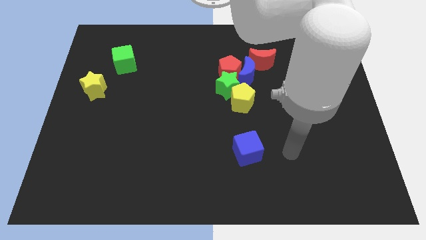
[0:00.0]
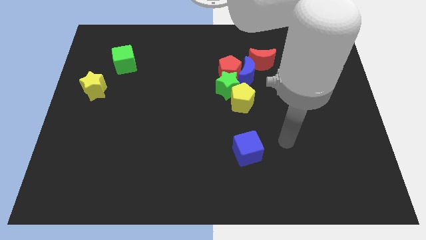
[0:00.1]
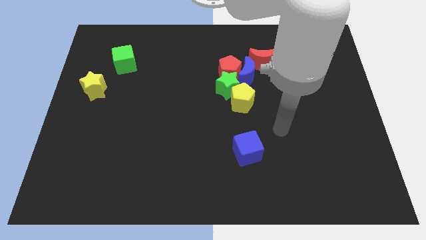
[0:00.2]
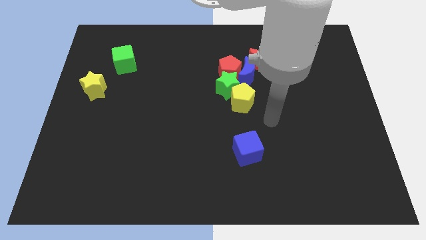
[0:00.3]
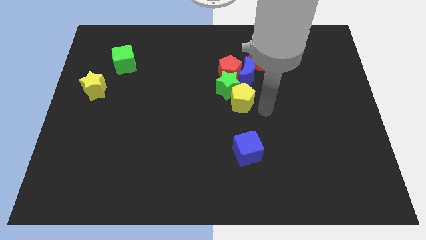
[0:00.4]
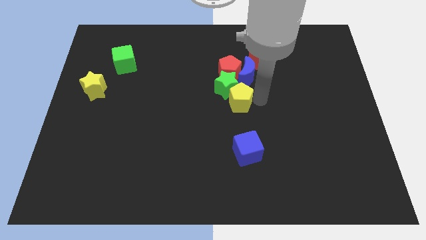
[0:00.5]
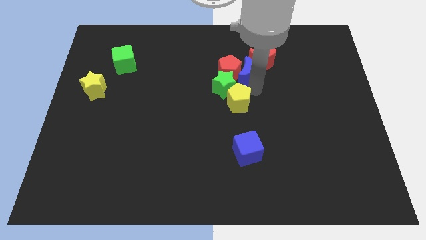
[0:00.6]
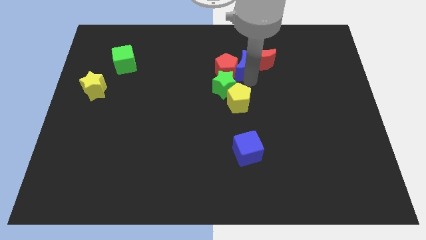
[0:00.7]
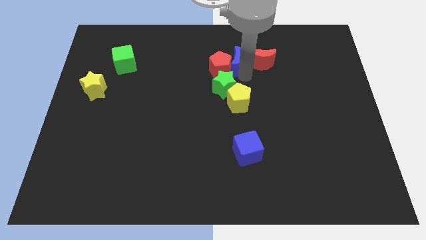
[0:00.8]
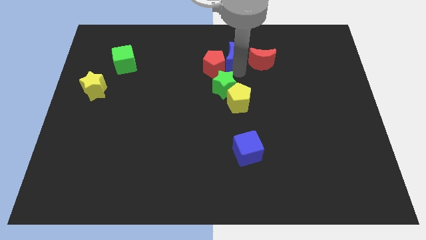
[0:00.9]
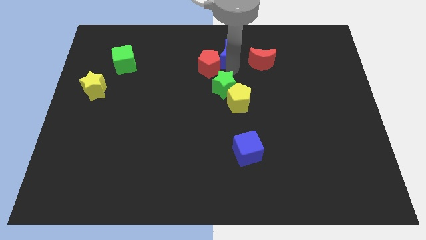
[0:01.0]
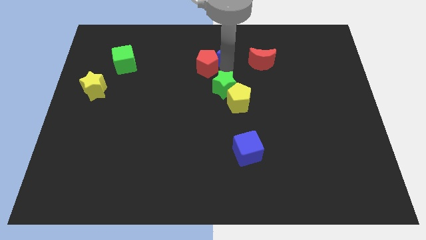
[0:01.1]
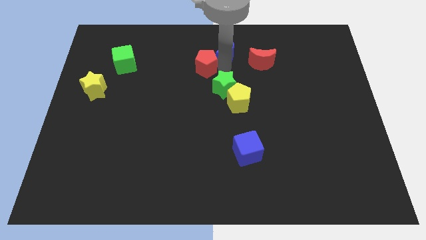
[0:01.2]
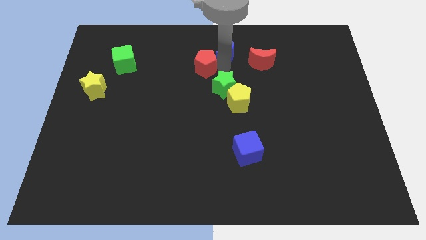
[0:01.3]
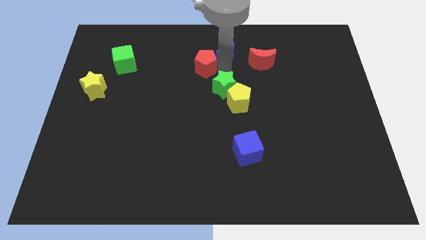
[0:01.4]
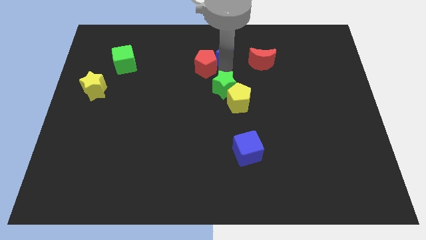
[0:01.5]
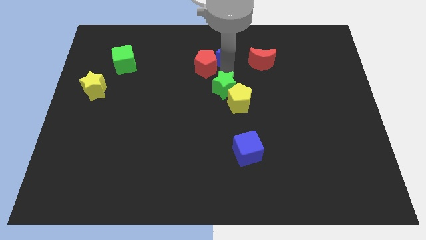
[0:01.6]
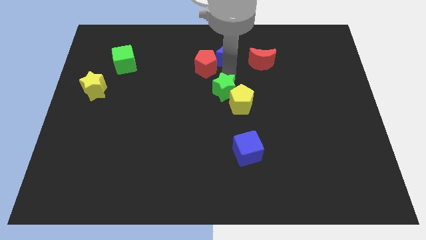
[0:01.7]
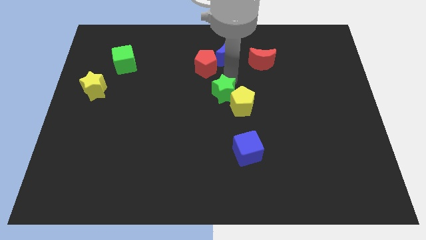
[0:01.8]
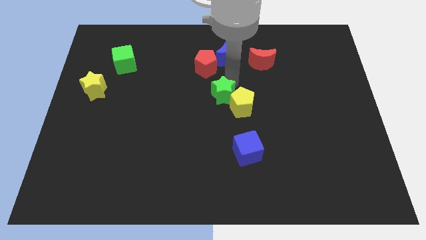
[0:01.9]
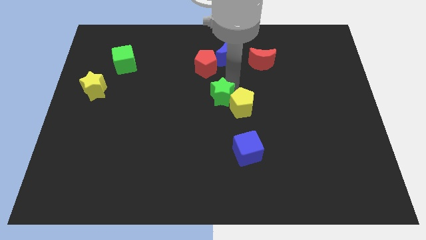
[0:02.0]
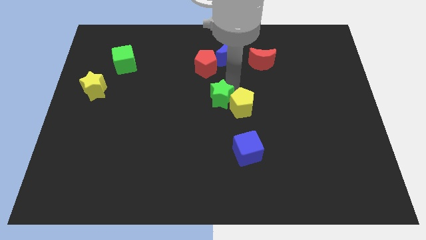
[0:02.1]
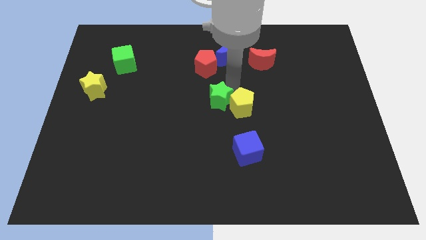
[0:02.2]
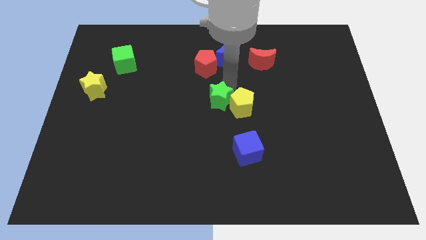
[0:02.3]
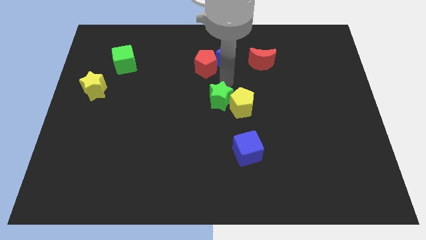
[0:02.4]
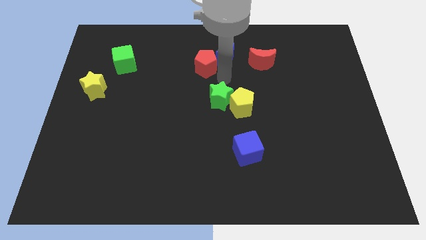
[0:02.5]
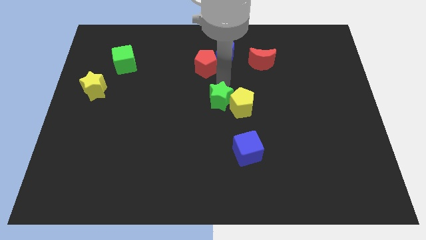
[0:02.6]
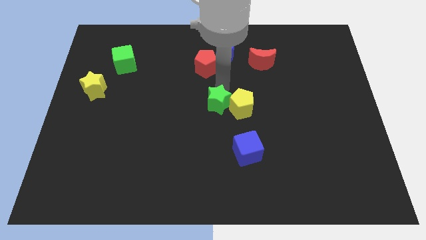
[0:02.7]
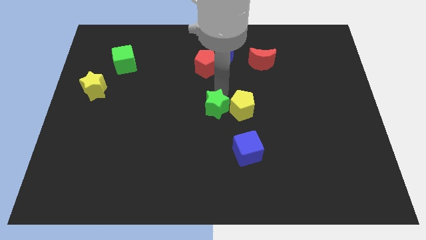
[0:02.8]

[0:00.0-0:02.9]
pull the green star apart from the clump

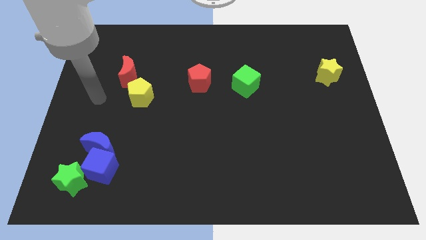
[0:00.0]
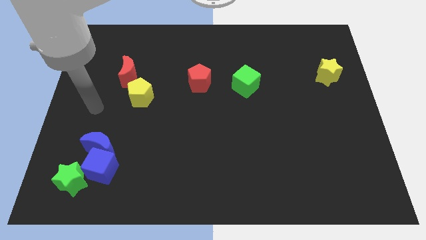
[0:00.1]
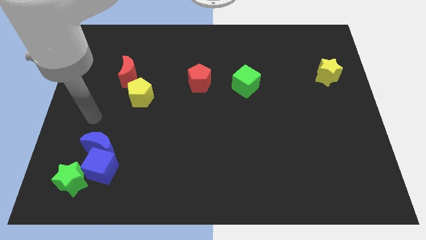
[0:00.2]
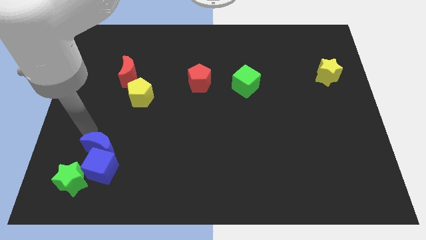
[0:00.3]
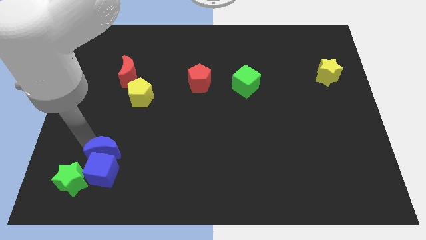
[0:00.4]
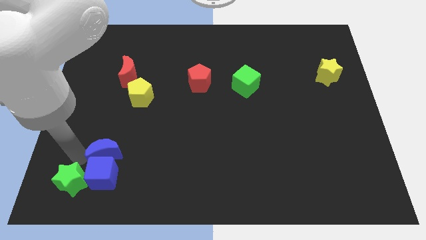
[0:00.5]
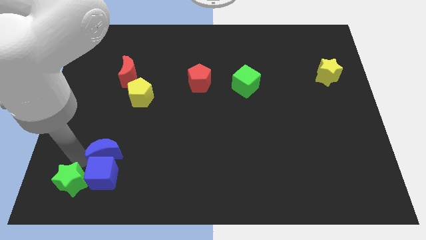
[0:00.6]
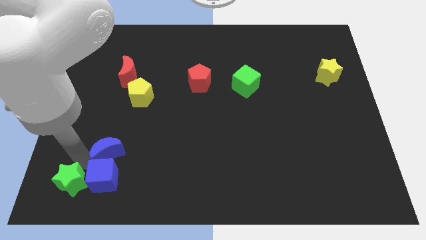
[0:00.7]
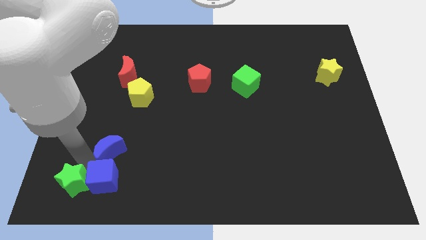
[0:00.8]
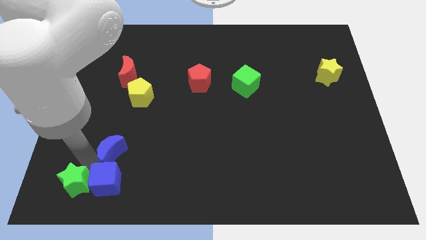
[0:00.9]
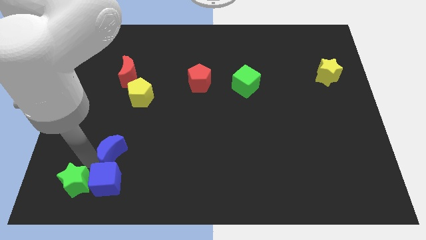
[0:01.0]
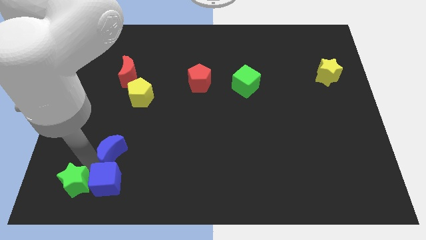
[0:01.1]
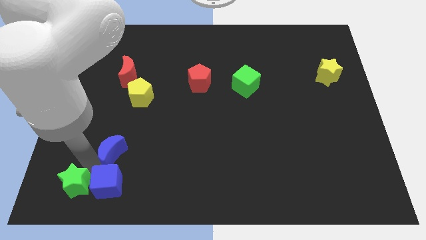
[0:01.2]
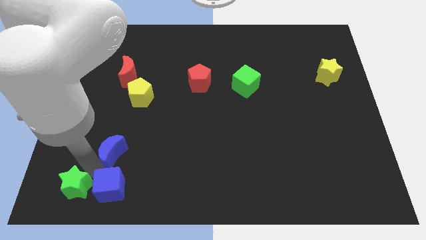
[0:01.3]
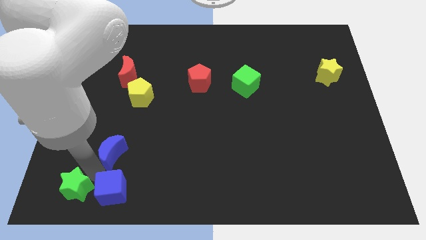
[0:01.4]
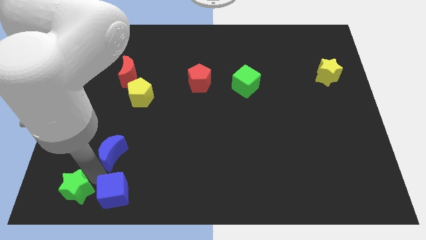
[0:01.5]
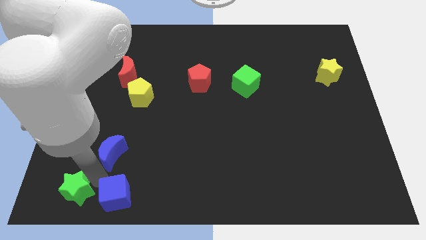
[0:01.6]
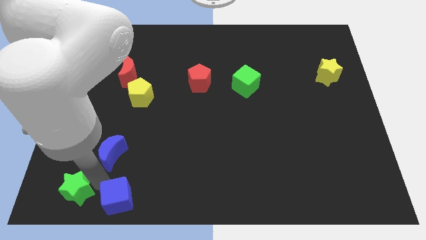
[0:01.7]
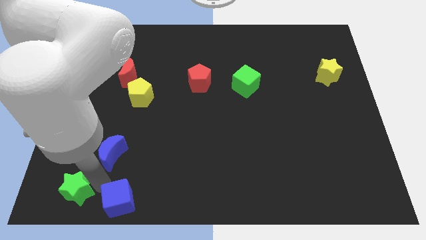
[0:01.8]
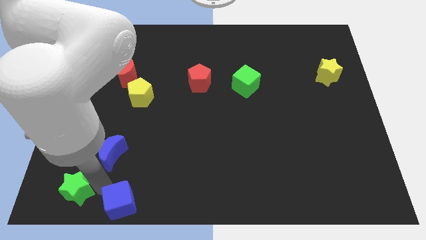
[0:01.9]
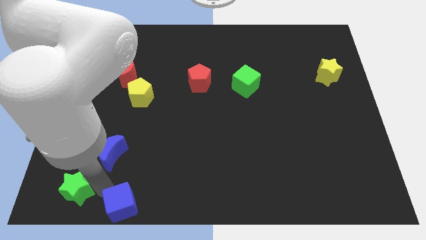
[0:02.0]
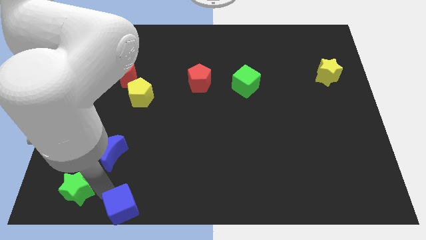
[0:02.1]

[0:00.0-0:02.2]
move the blue cube away from the blue moon and green star

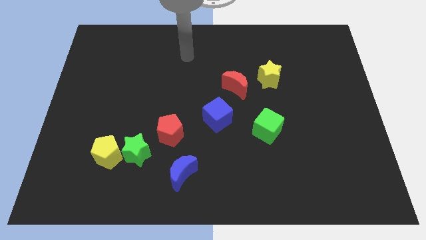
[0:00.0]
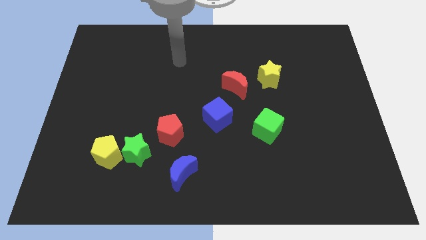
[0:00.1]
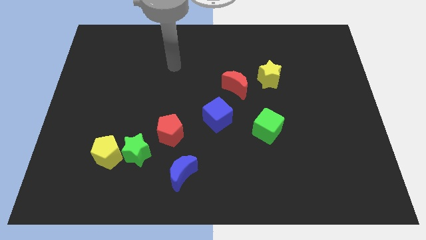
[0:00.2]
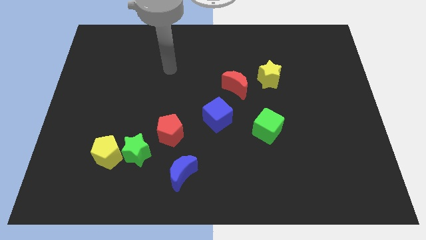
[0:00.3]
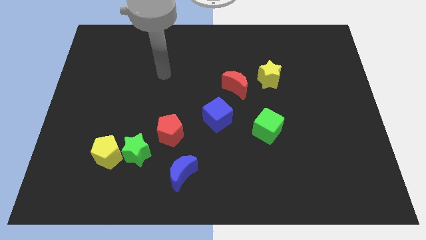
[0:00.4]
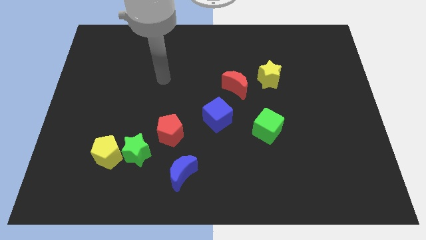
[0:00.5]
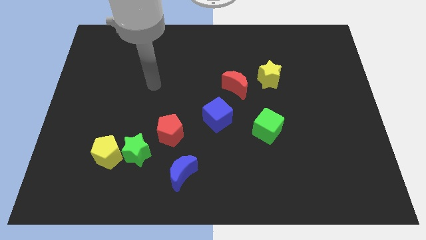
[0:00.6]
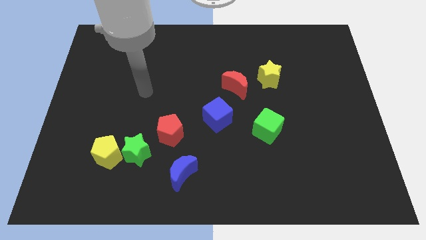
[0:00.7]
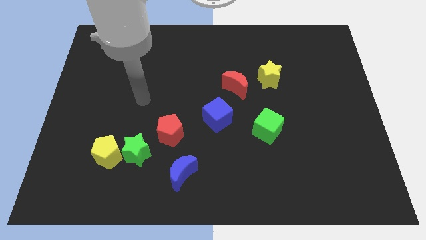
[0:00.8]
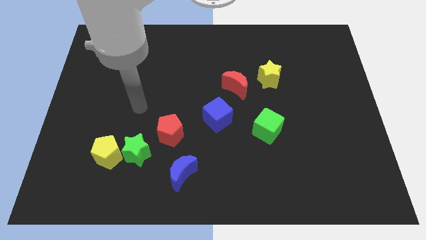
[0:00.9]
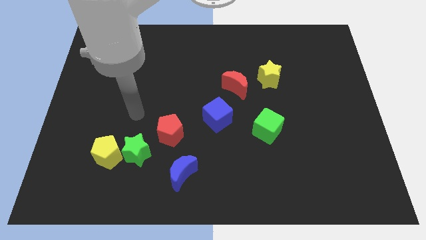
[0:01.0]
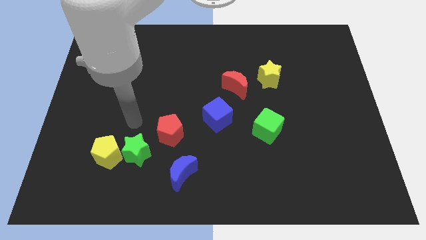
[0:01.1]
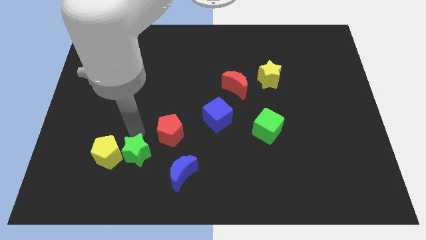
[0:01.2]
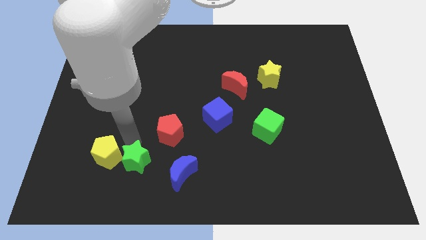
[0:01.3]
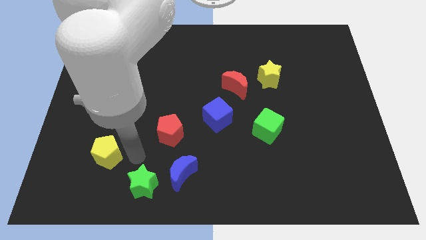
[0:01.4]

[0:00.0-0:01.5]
pull the yellow pentagon apart from the green star

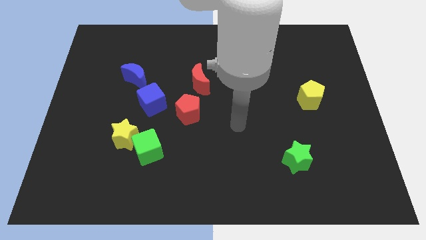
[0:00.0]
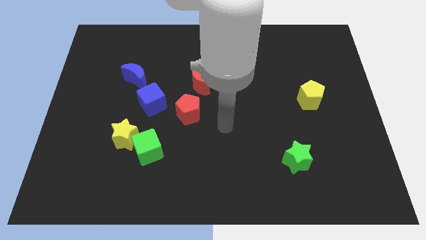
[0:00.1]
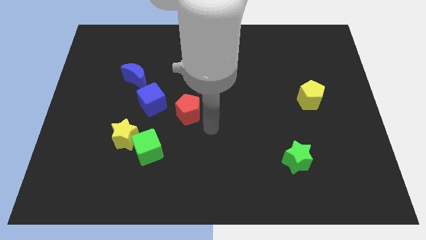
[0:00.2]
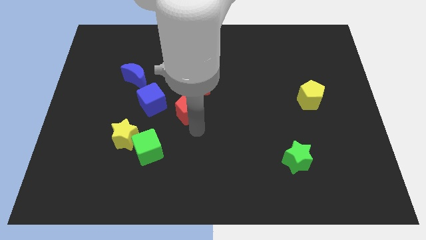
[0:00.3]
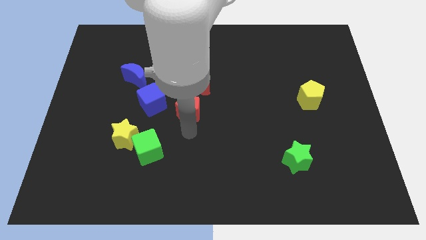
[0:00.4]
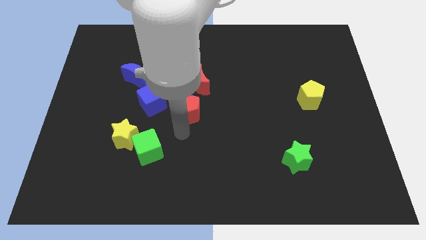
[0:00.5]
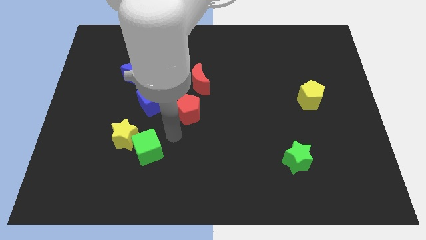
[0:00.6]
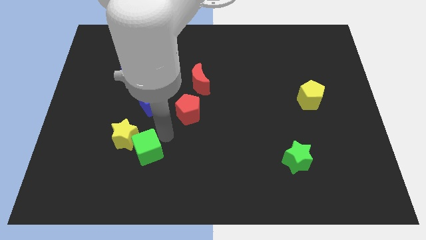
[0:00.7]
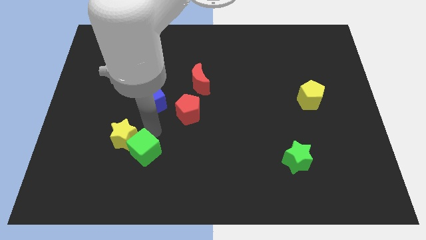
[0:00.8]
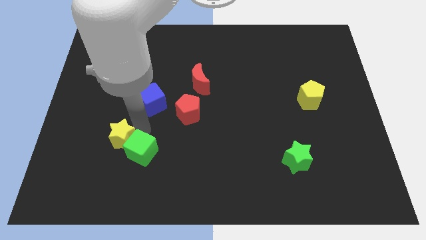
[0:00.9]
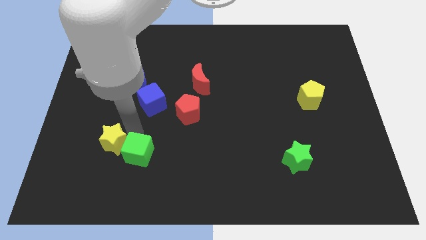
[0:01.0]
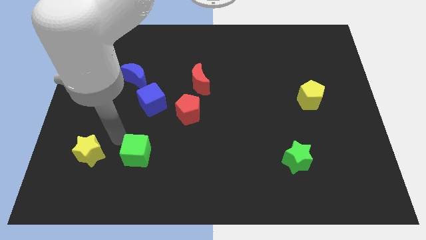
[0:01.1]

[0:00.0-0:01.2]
separate the green cube from the yellow star

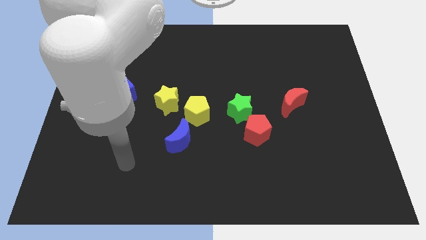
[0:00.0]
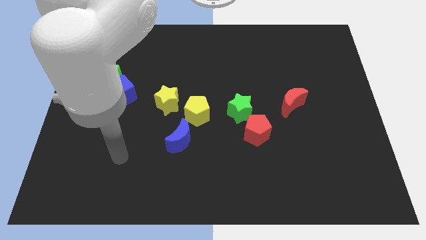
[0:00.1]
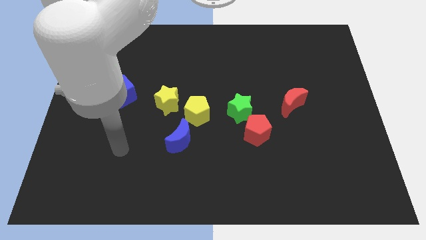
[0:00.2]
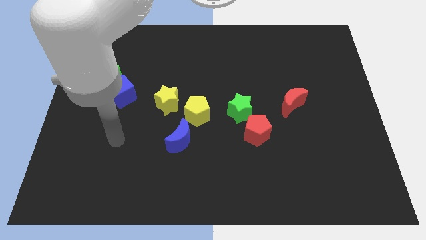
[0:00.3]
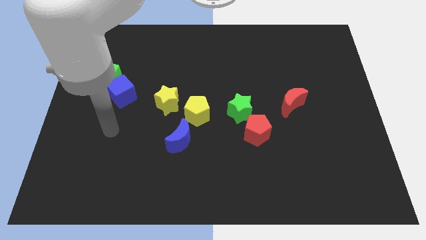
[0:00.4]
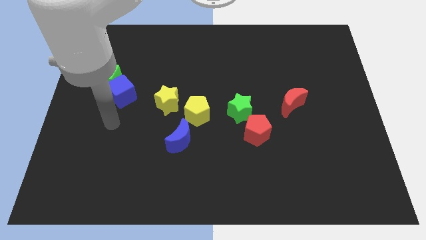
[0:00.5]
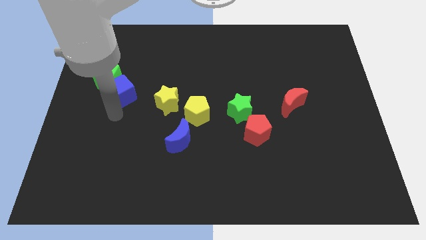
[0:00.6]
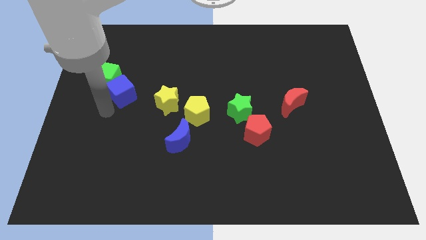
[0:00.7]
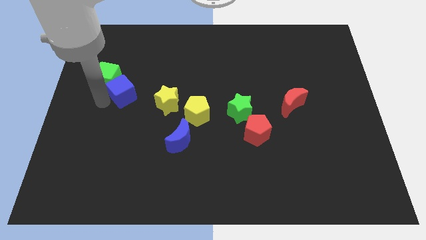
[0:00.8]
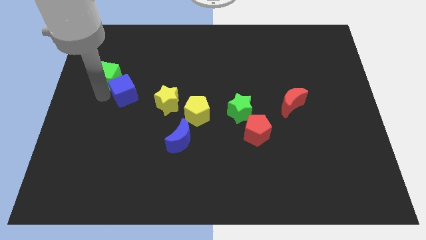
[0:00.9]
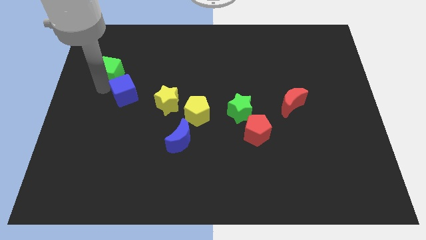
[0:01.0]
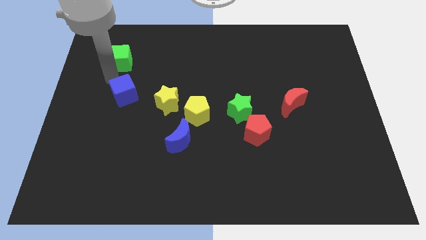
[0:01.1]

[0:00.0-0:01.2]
pull the blue cube apart from the green cube

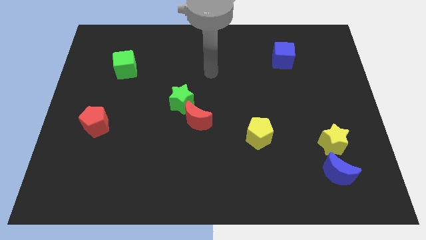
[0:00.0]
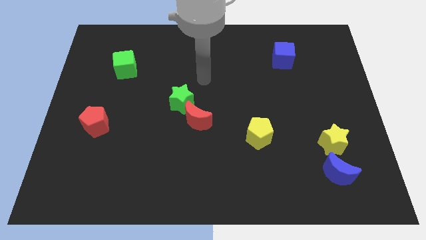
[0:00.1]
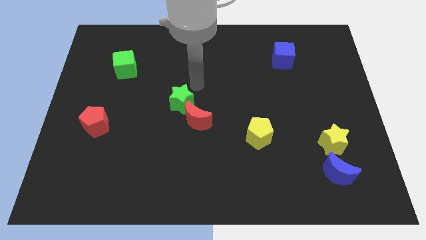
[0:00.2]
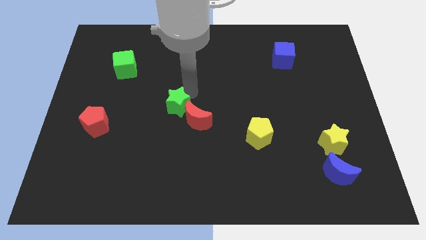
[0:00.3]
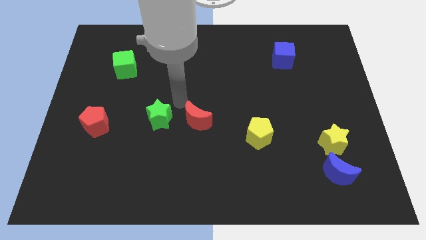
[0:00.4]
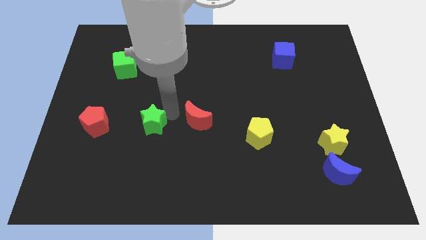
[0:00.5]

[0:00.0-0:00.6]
move the red moon away from the green star
